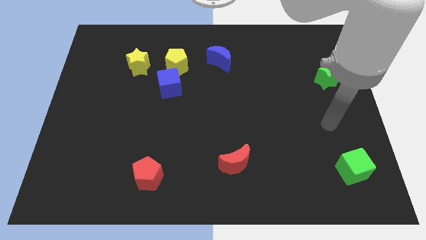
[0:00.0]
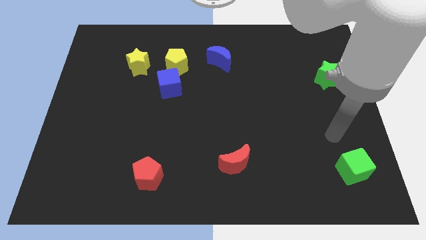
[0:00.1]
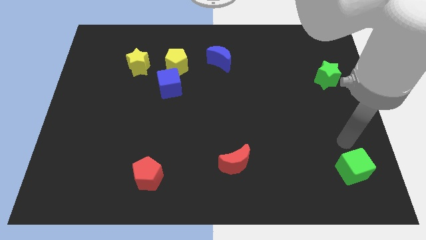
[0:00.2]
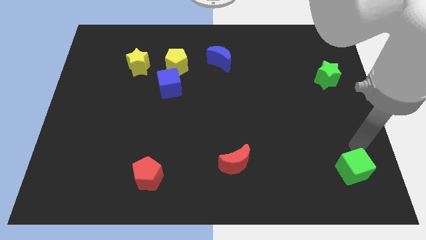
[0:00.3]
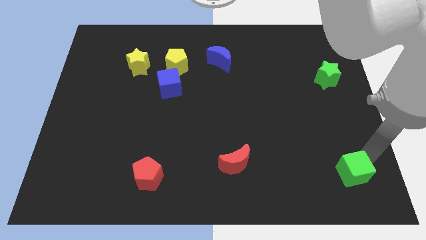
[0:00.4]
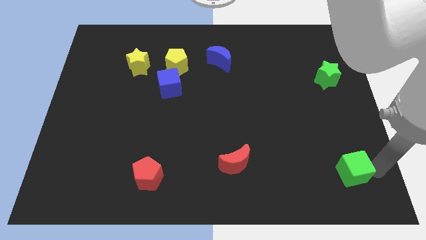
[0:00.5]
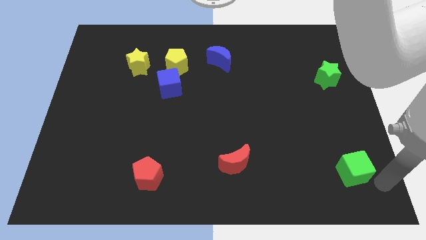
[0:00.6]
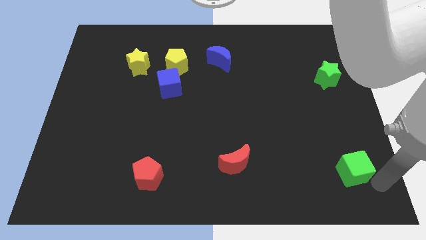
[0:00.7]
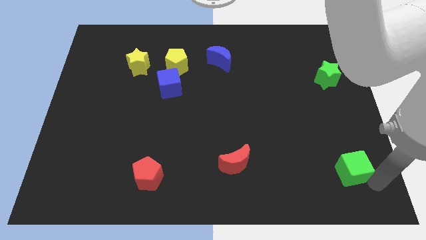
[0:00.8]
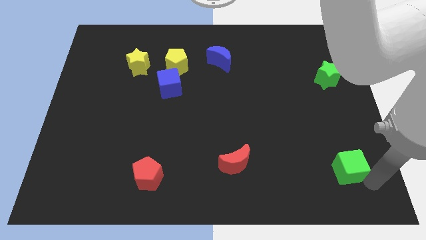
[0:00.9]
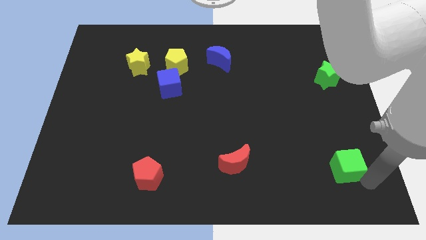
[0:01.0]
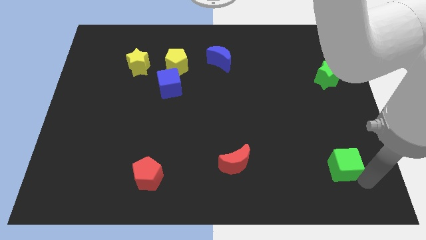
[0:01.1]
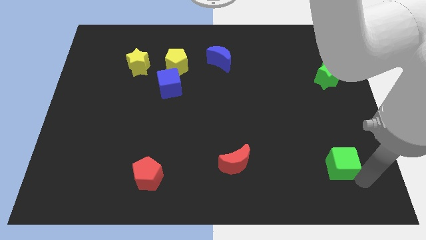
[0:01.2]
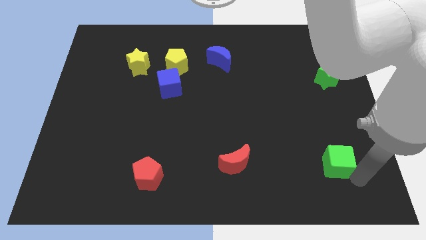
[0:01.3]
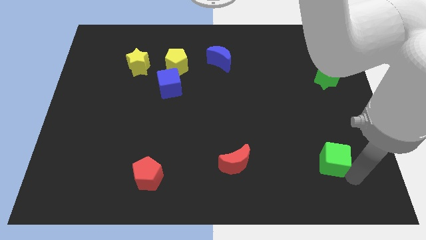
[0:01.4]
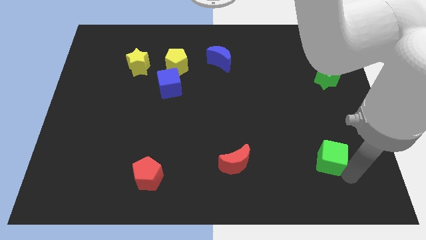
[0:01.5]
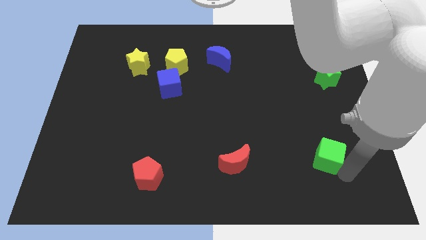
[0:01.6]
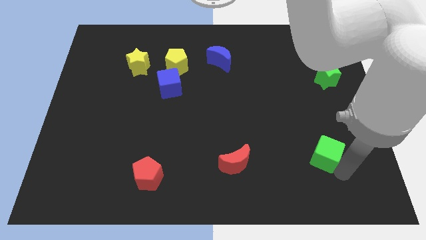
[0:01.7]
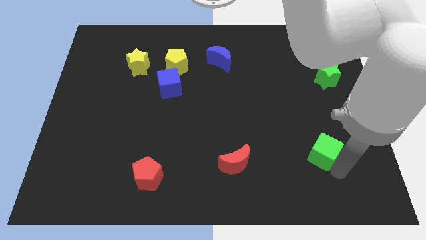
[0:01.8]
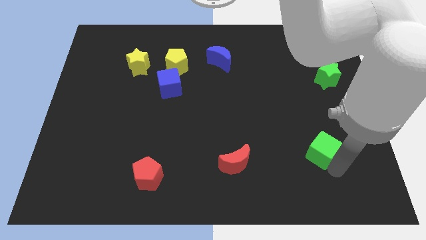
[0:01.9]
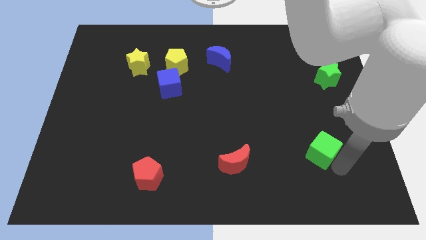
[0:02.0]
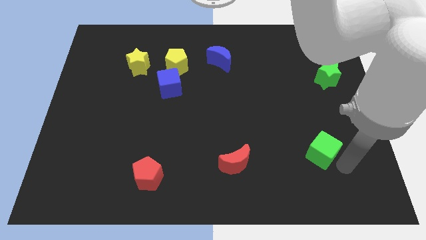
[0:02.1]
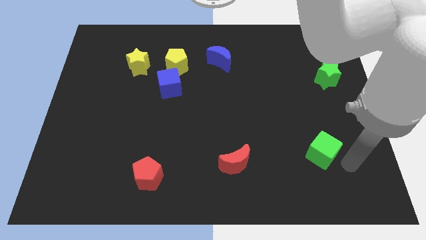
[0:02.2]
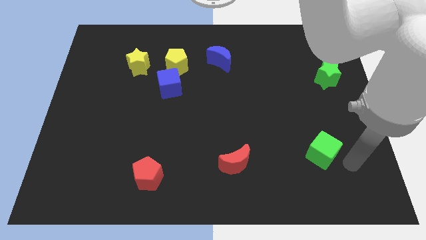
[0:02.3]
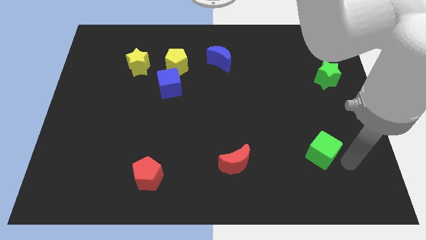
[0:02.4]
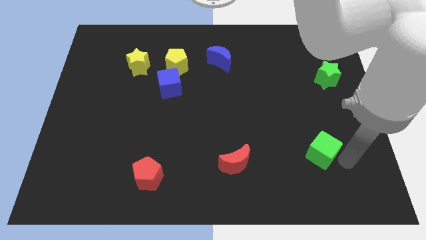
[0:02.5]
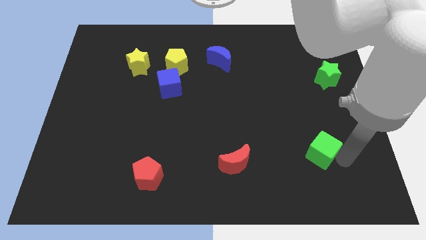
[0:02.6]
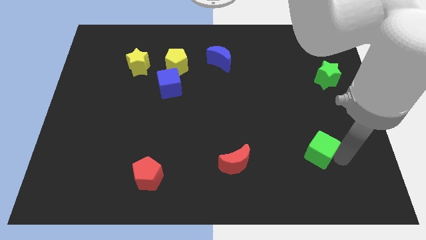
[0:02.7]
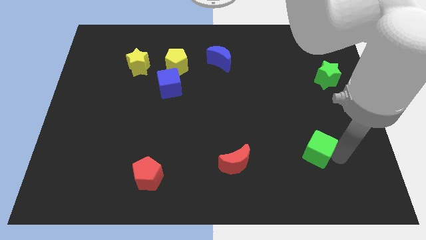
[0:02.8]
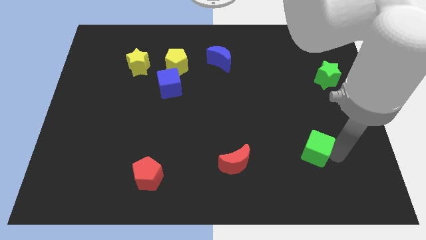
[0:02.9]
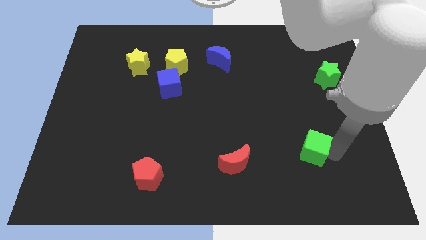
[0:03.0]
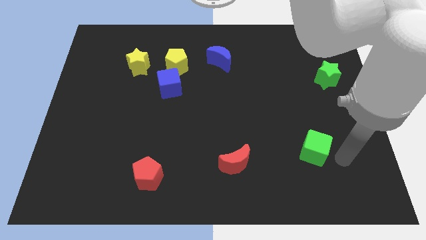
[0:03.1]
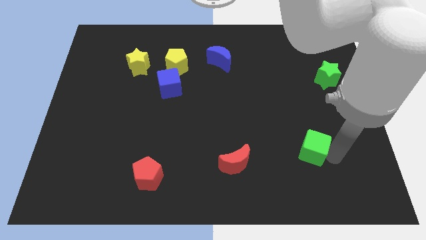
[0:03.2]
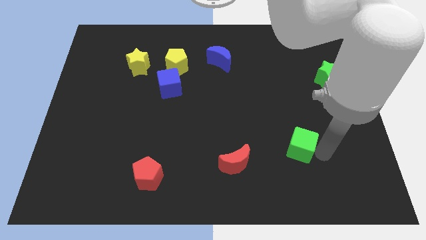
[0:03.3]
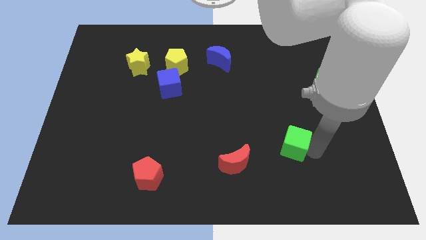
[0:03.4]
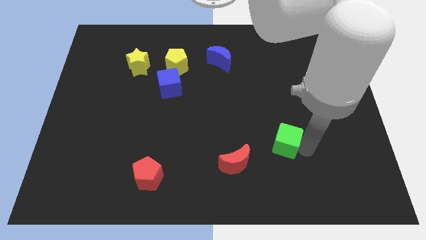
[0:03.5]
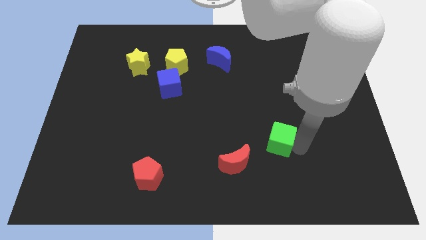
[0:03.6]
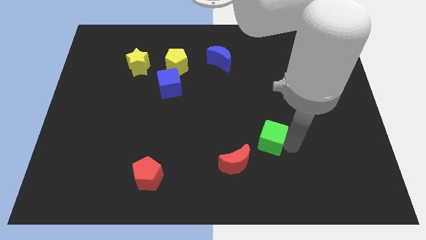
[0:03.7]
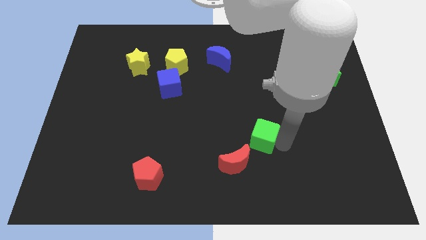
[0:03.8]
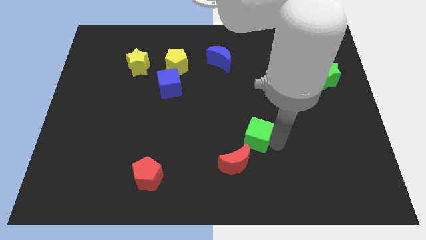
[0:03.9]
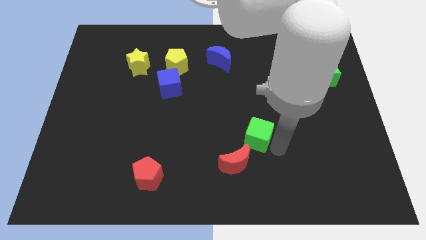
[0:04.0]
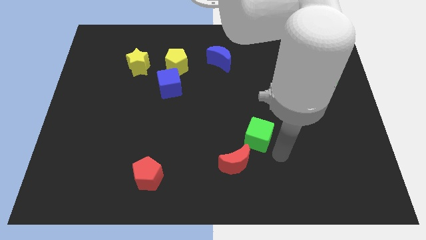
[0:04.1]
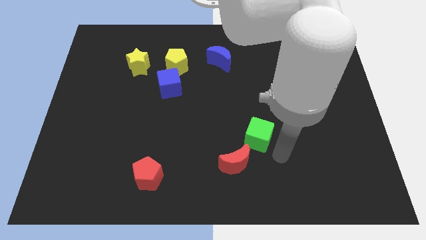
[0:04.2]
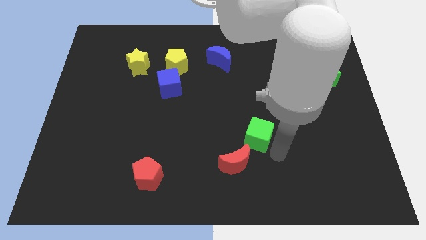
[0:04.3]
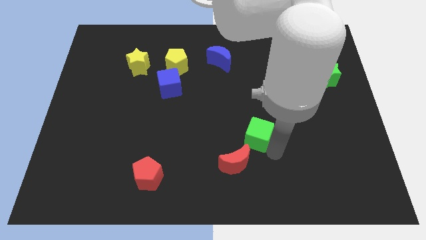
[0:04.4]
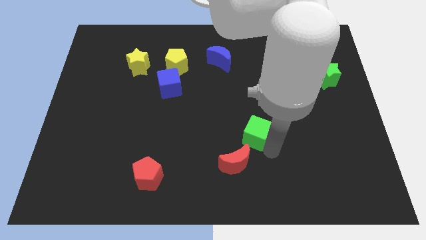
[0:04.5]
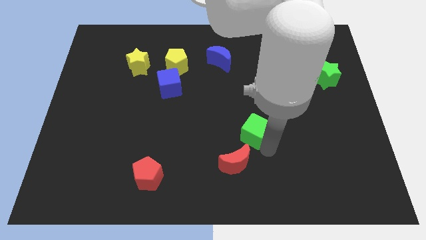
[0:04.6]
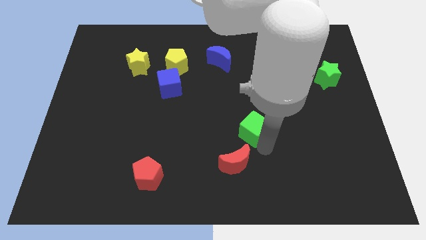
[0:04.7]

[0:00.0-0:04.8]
push the green cube to the middle

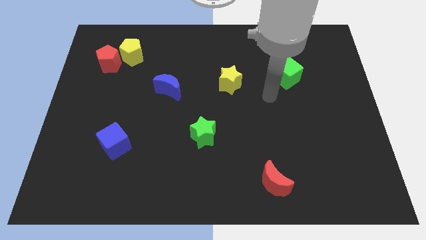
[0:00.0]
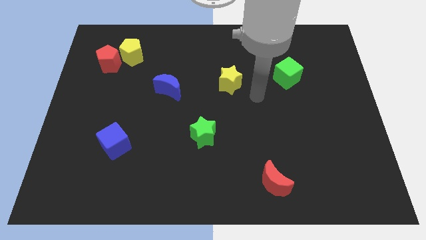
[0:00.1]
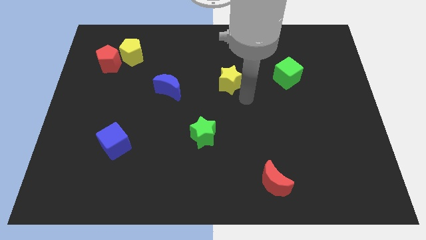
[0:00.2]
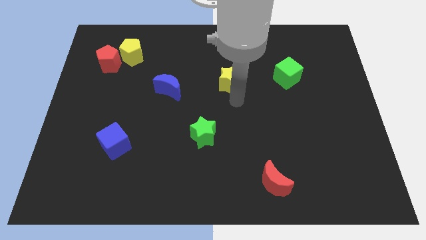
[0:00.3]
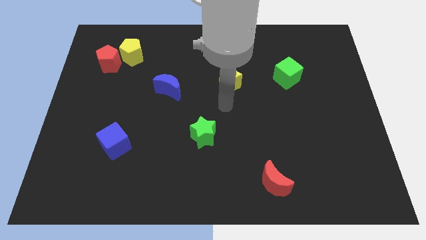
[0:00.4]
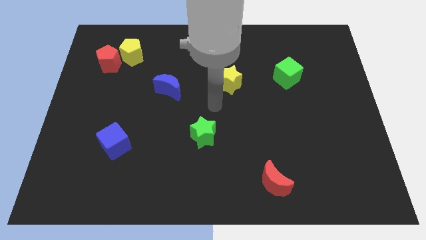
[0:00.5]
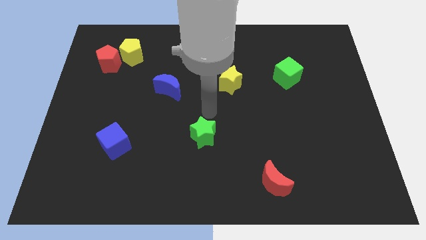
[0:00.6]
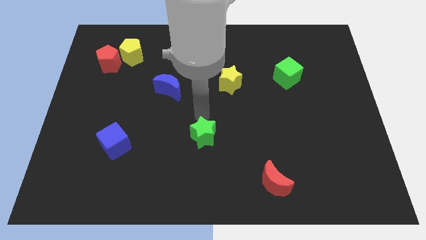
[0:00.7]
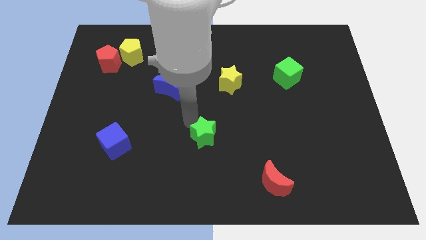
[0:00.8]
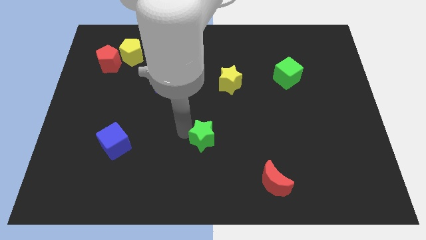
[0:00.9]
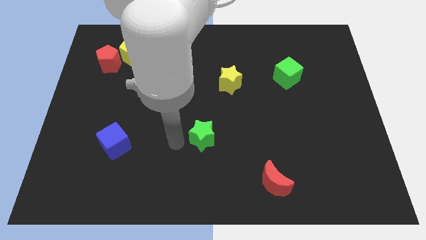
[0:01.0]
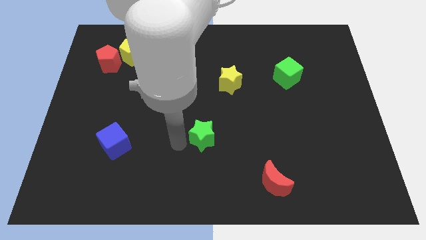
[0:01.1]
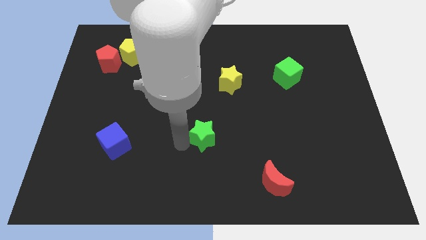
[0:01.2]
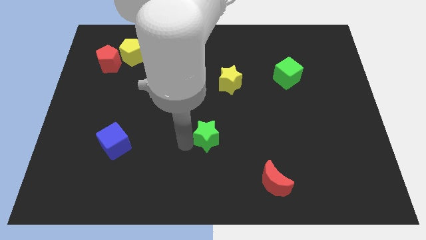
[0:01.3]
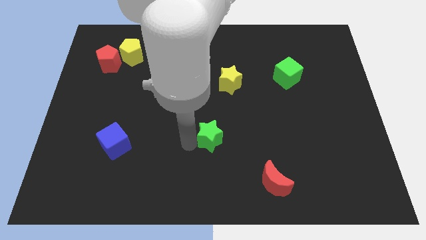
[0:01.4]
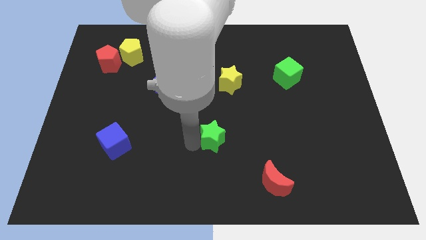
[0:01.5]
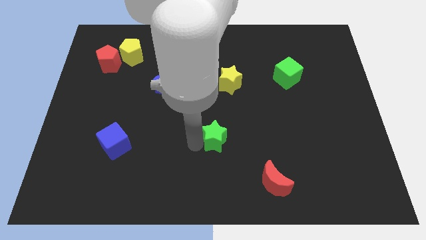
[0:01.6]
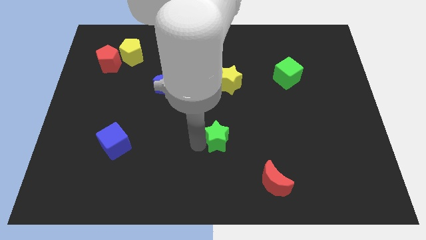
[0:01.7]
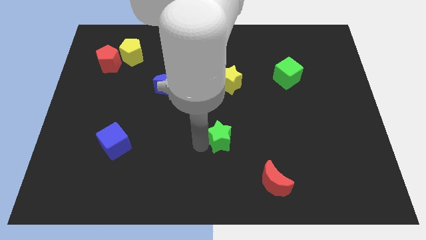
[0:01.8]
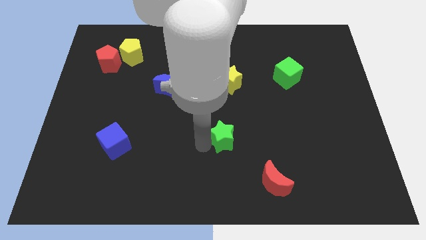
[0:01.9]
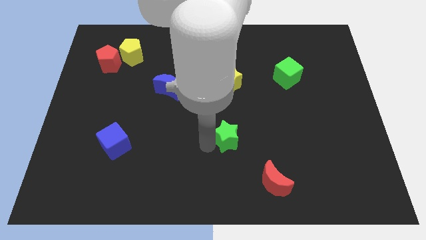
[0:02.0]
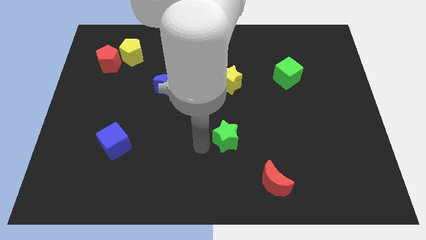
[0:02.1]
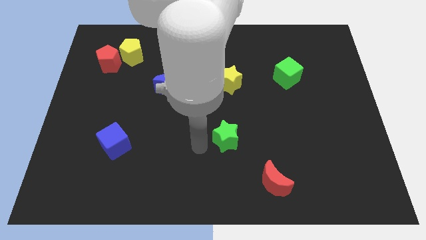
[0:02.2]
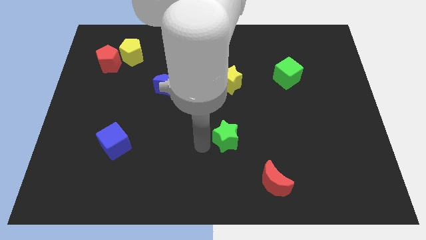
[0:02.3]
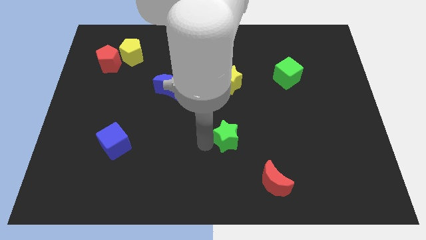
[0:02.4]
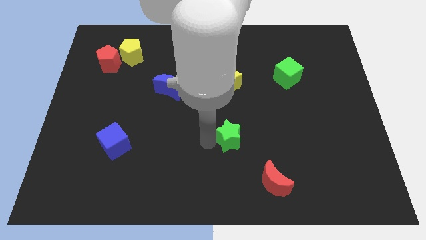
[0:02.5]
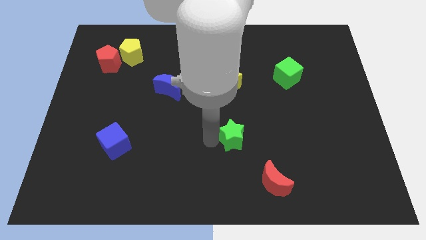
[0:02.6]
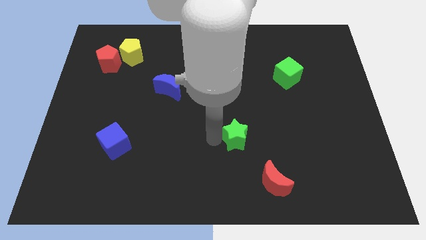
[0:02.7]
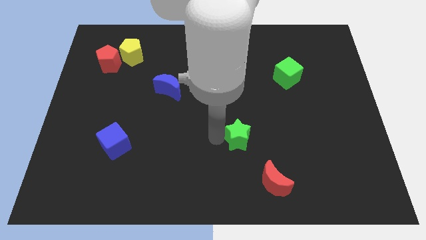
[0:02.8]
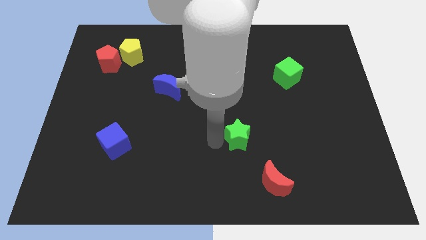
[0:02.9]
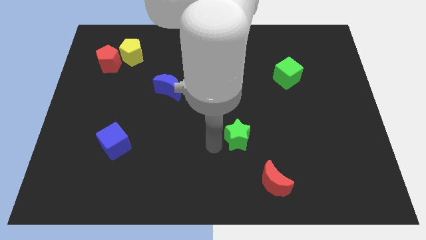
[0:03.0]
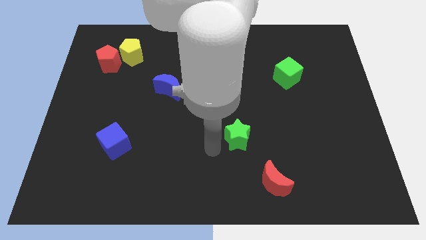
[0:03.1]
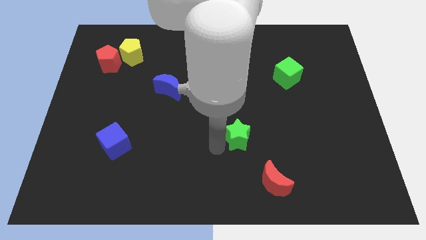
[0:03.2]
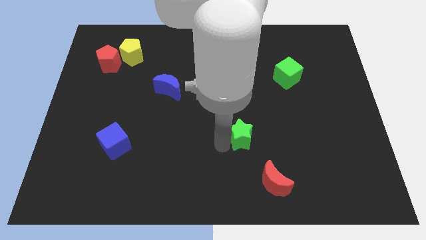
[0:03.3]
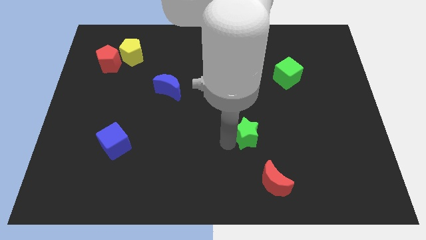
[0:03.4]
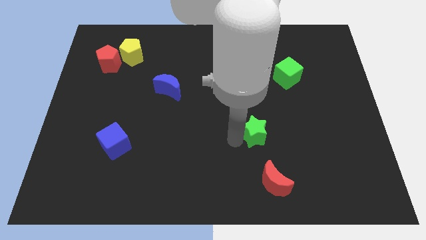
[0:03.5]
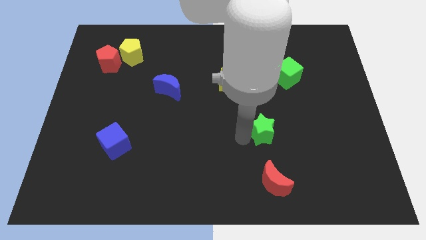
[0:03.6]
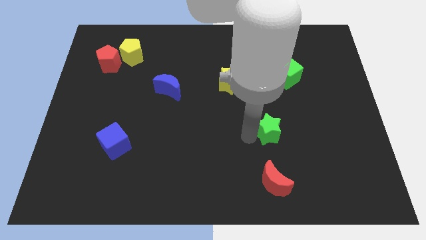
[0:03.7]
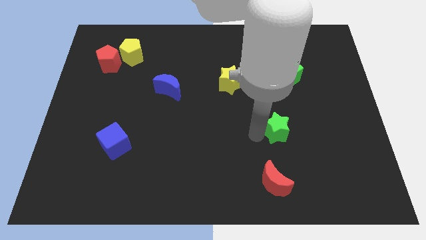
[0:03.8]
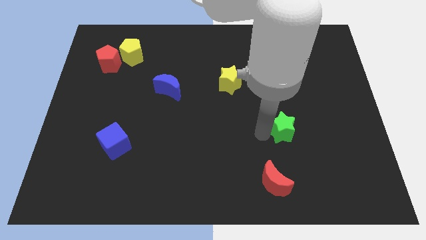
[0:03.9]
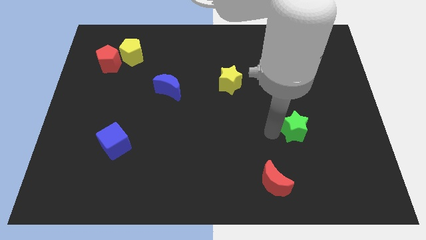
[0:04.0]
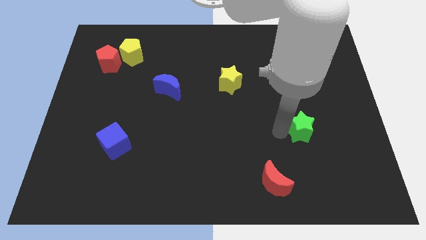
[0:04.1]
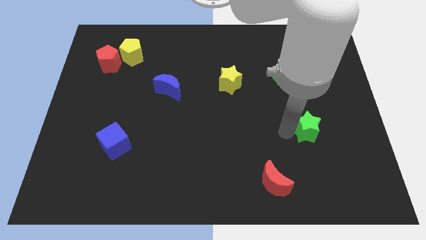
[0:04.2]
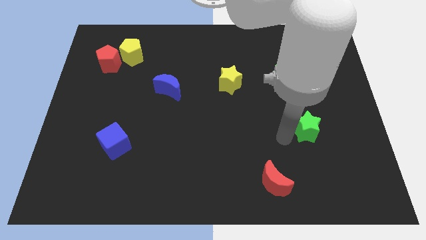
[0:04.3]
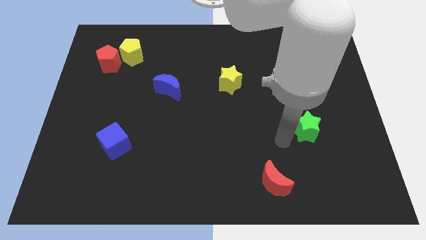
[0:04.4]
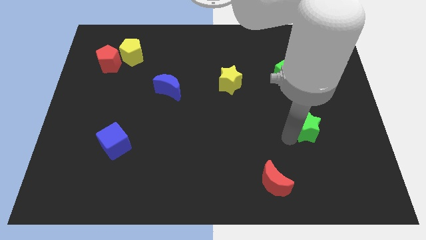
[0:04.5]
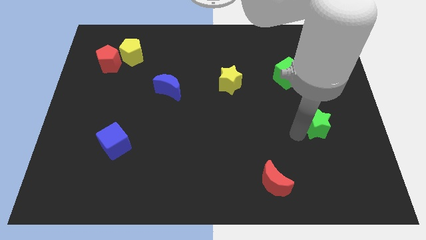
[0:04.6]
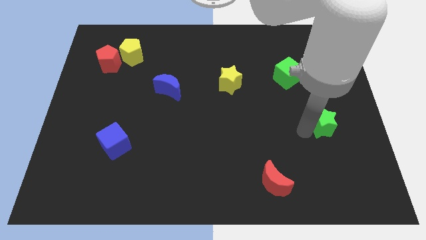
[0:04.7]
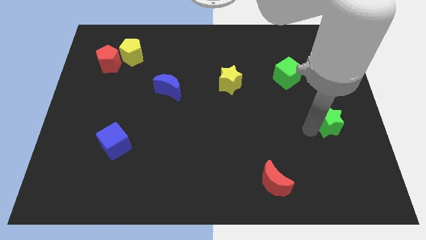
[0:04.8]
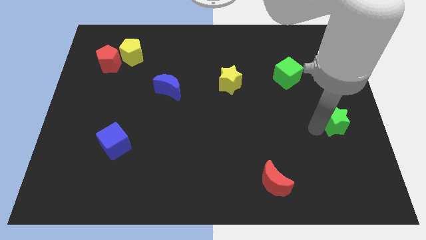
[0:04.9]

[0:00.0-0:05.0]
slide the green star to the right side of the board
